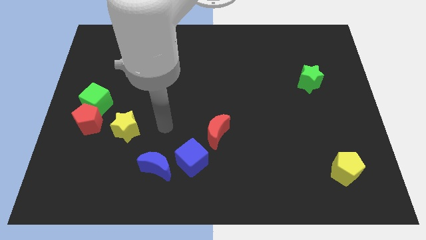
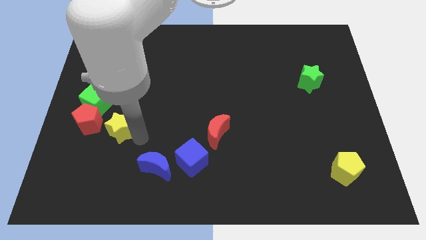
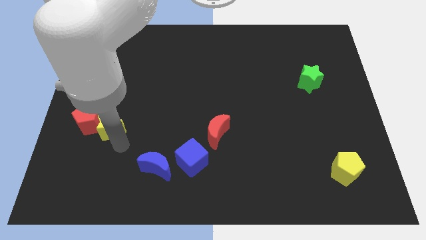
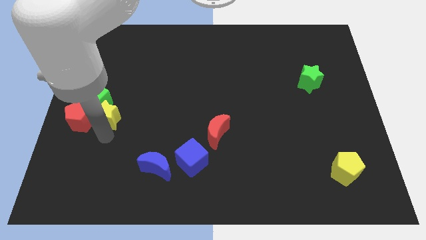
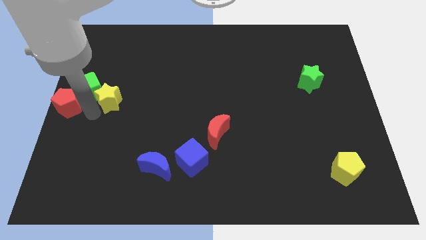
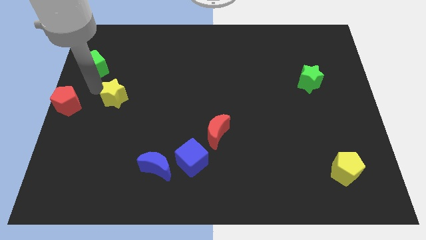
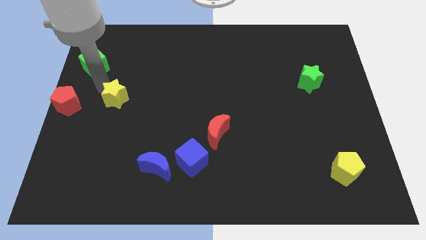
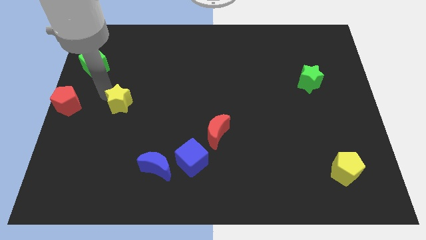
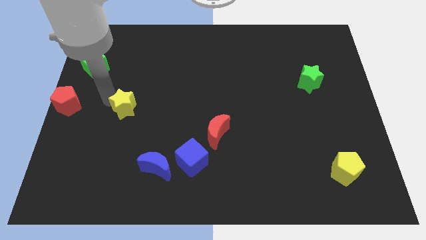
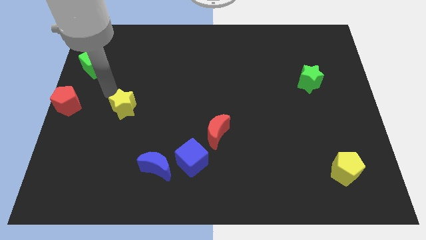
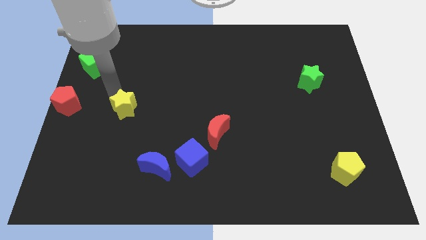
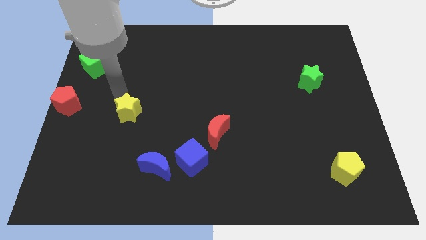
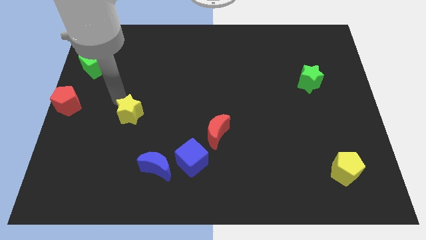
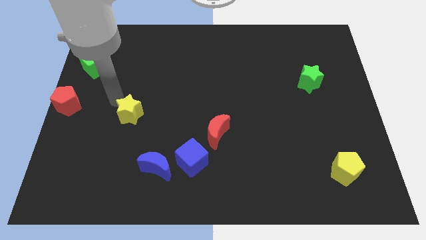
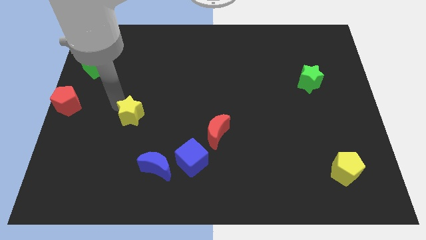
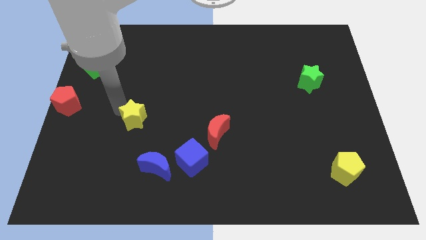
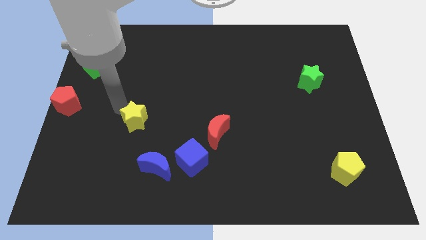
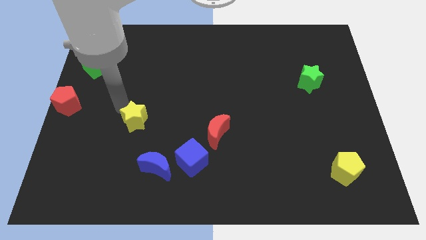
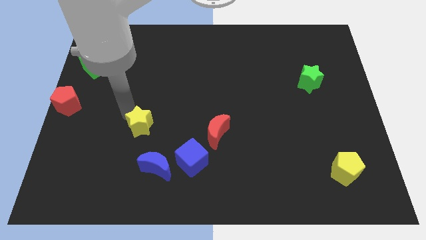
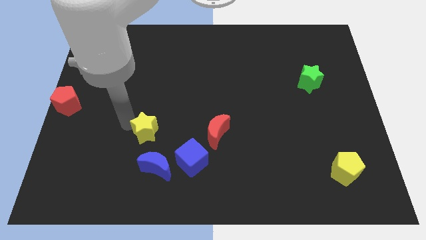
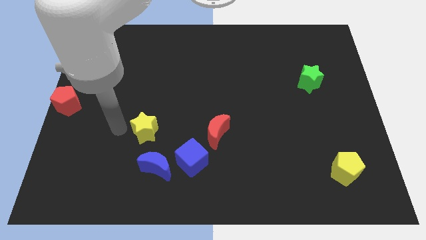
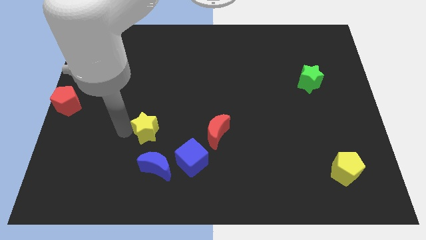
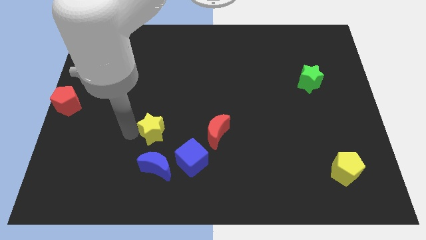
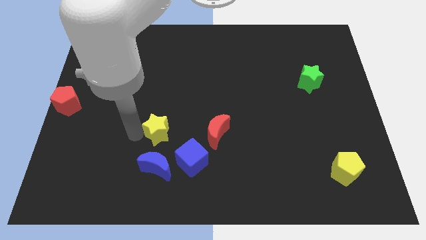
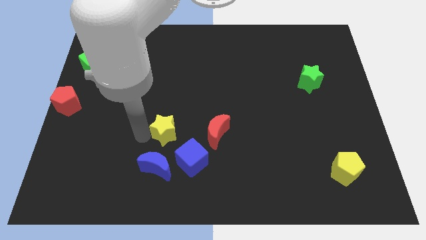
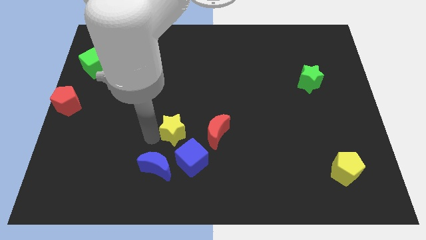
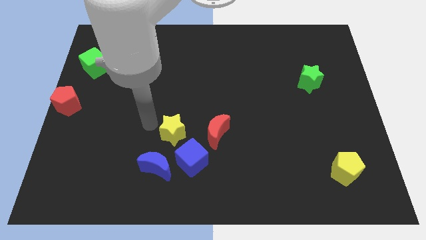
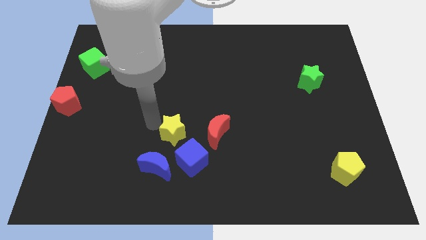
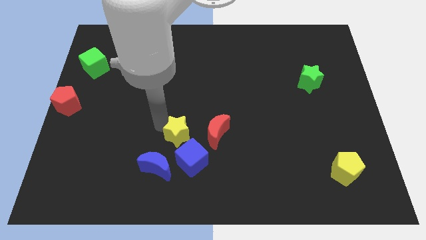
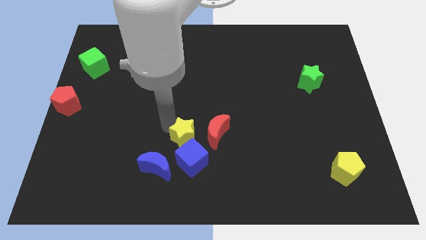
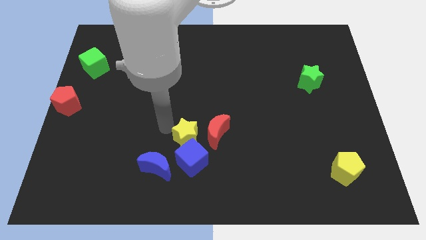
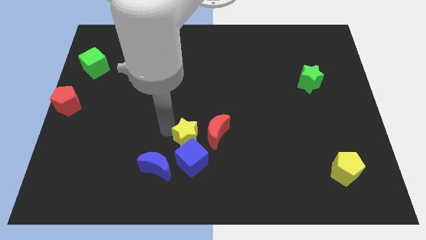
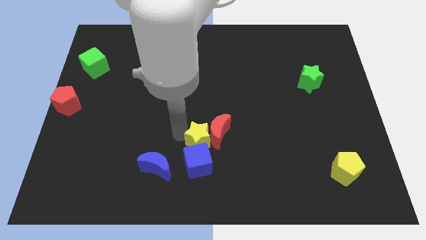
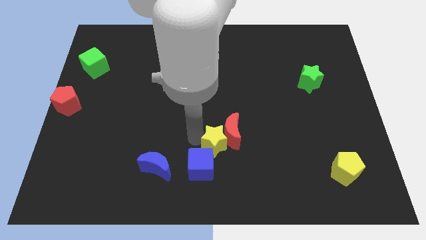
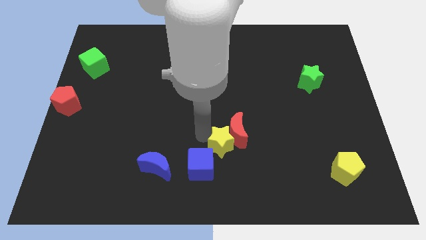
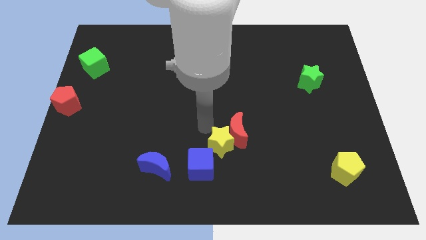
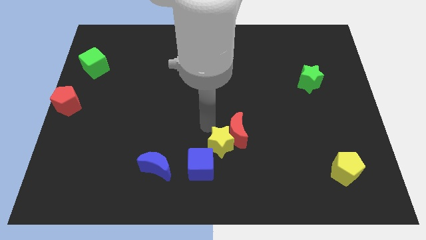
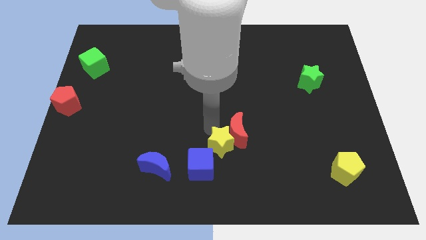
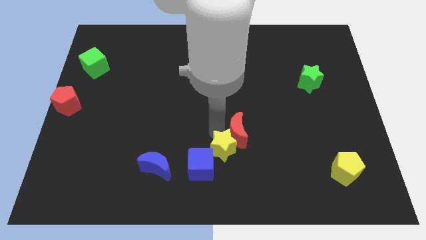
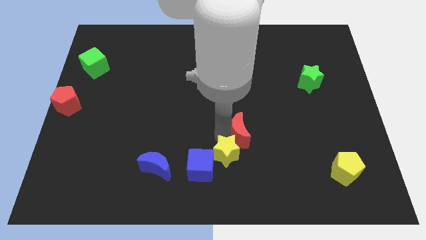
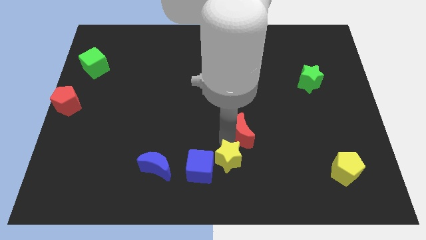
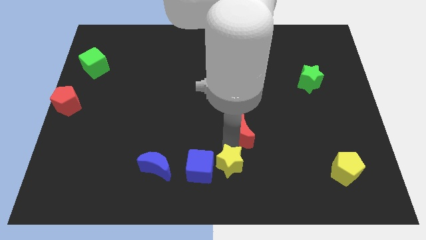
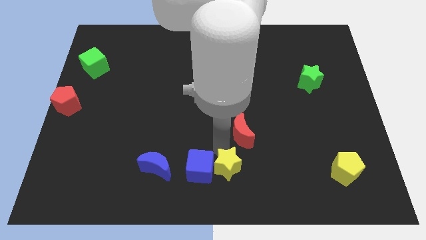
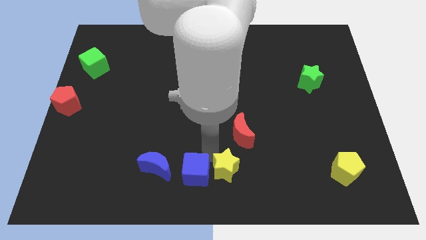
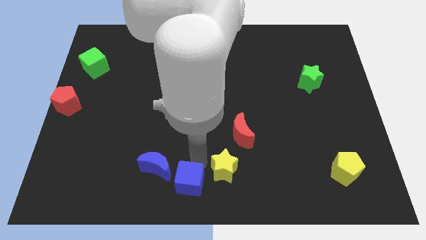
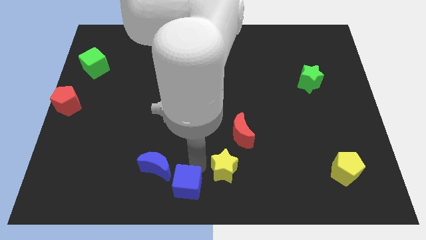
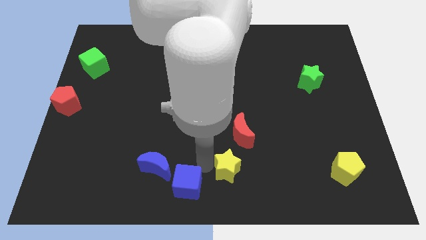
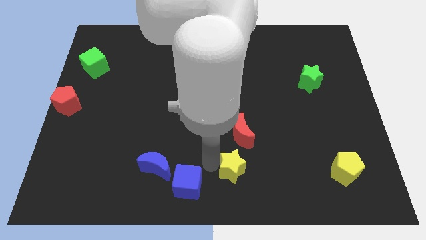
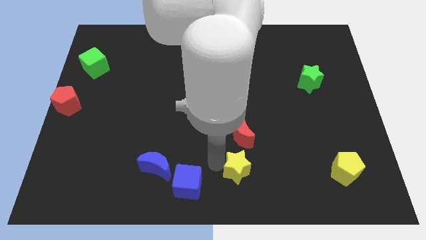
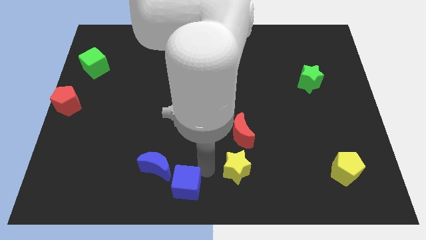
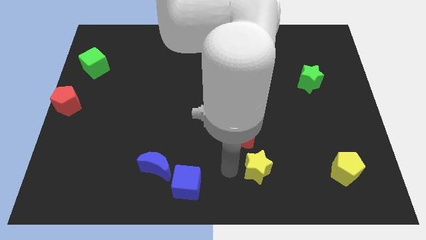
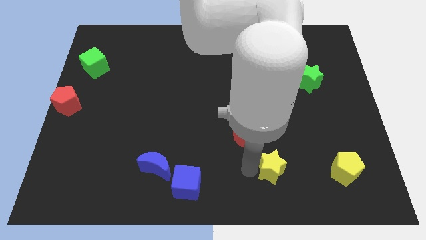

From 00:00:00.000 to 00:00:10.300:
move the yellow star to the left side of the yellow pentagon

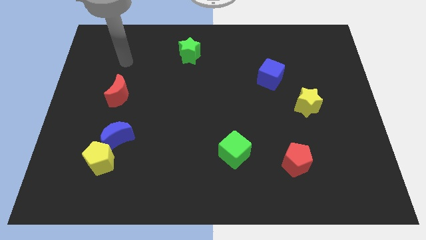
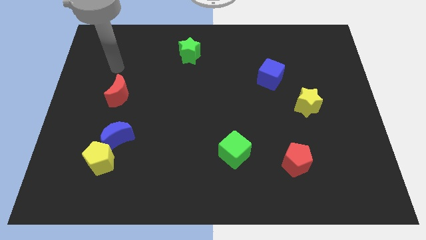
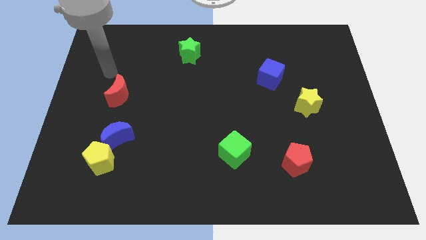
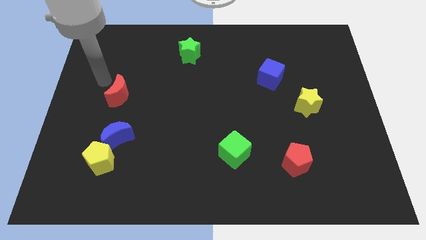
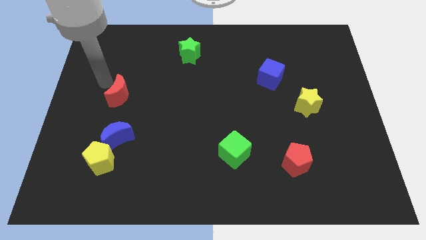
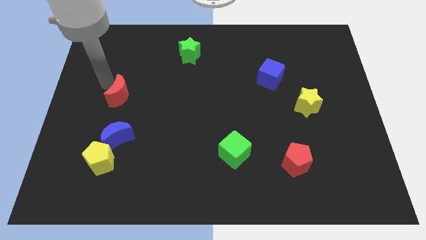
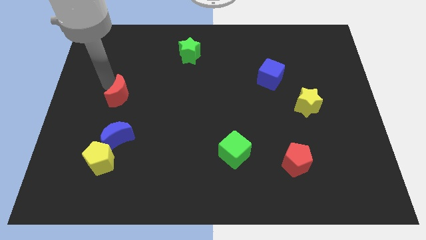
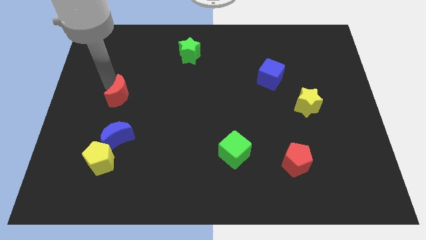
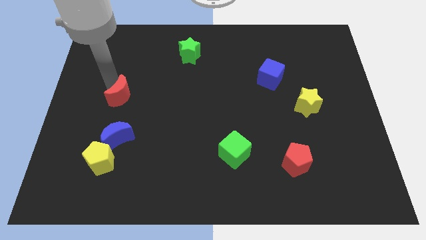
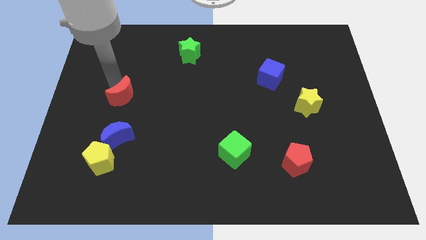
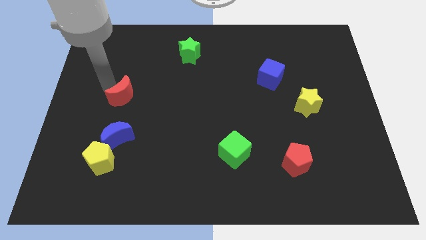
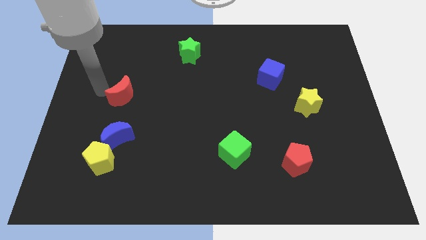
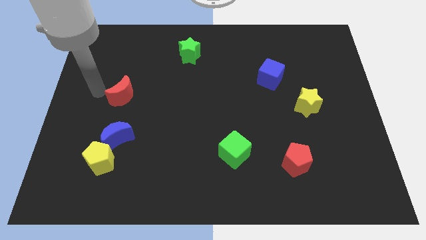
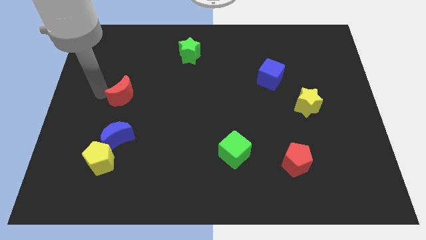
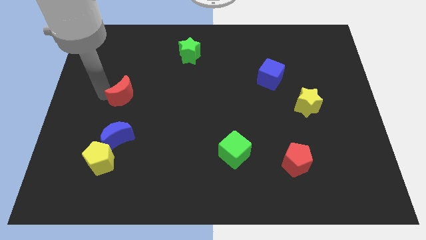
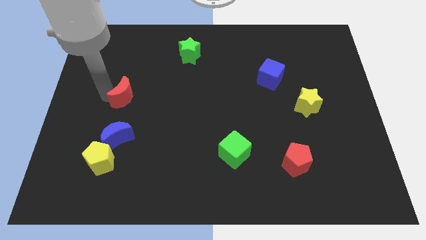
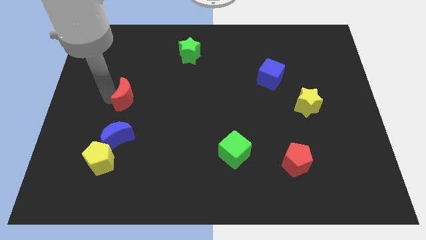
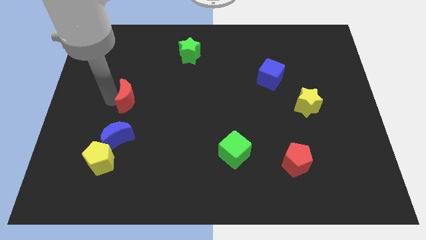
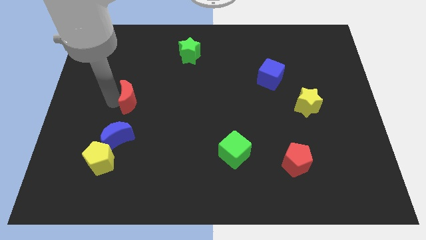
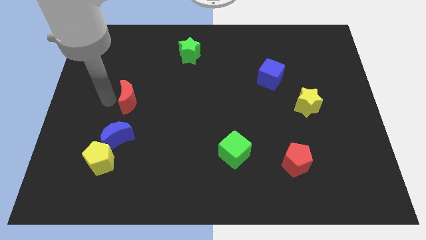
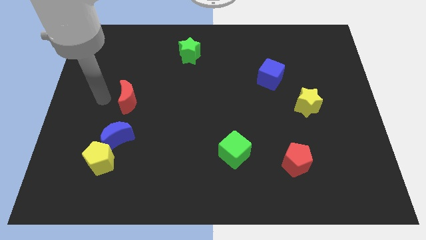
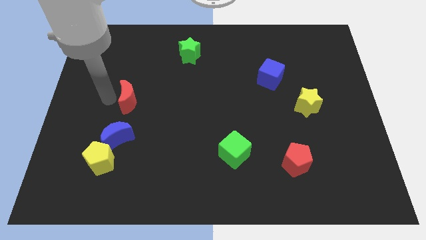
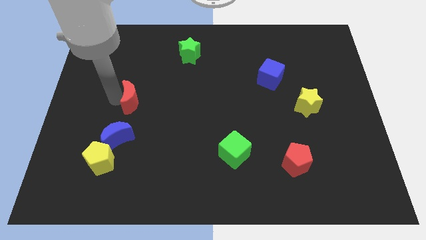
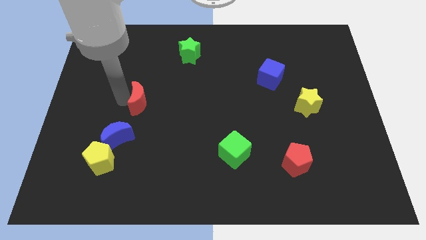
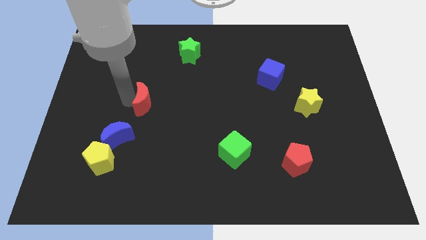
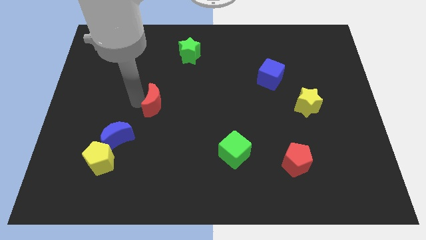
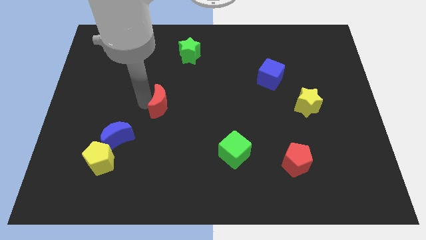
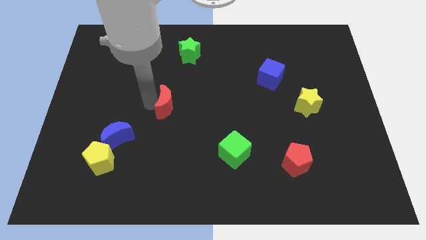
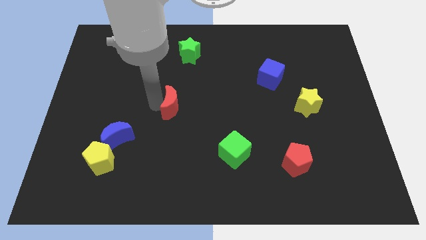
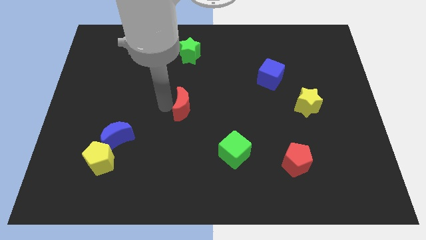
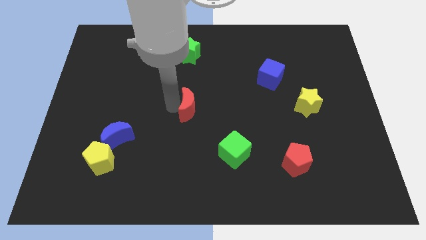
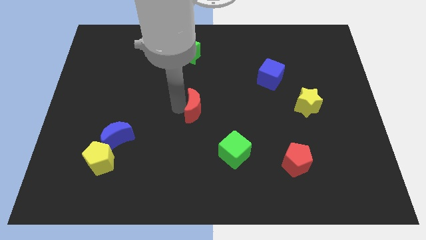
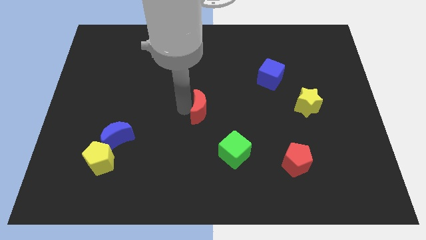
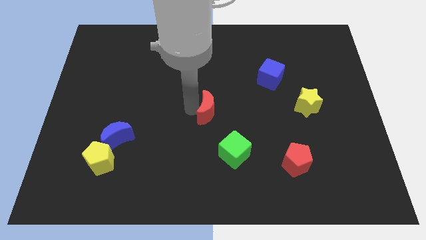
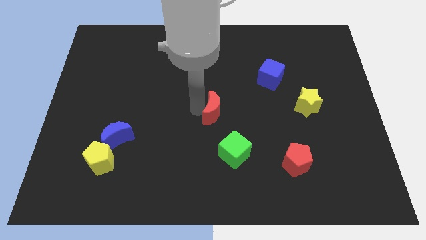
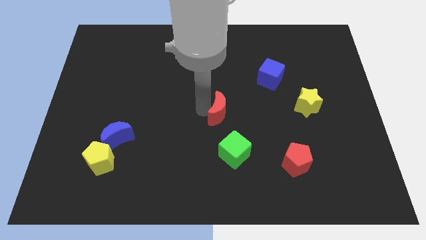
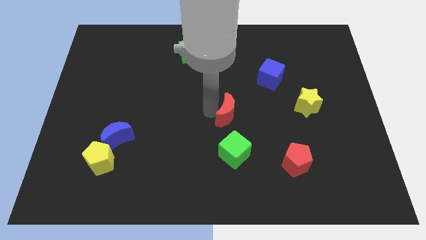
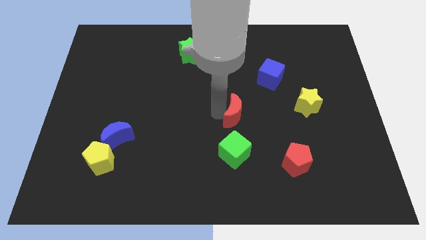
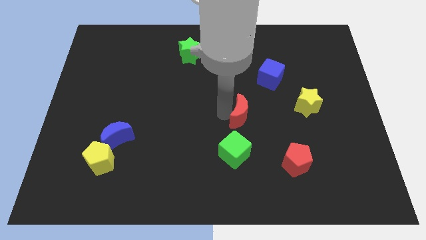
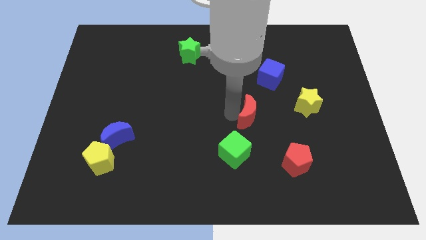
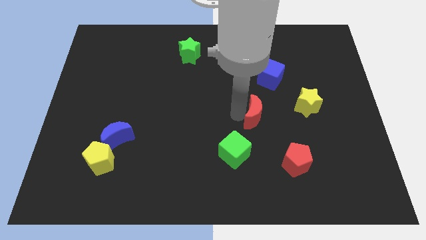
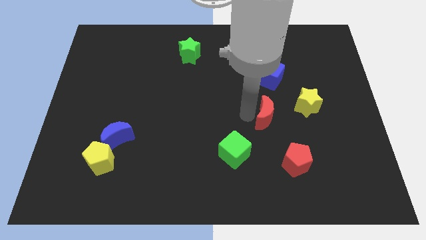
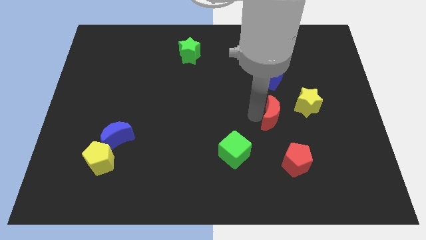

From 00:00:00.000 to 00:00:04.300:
put the red moon to the top of the red pentagon
